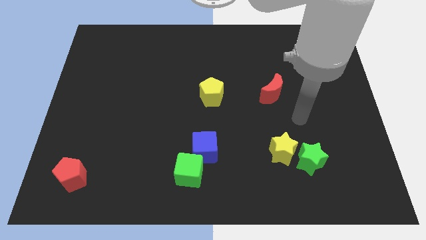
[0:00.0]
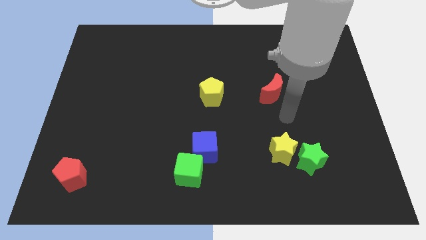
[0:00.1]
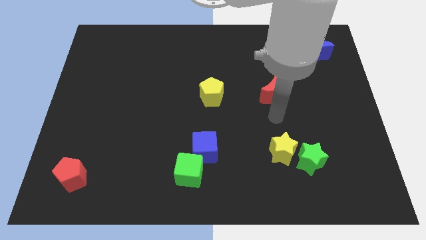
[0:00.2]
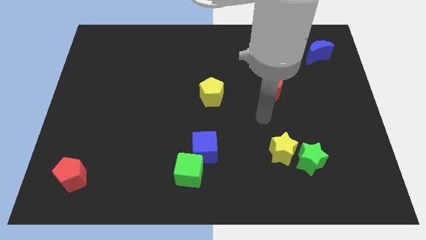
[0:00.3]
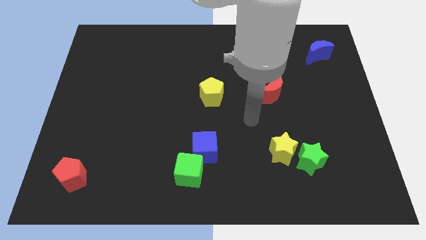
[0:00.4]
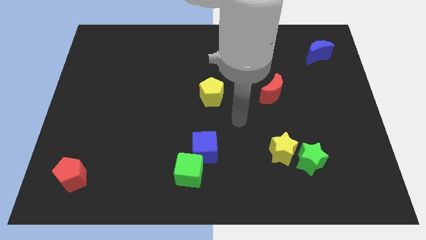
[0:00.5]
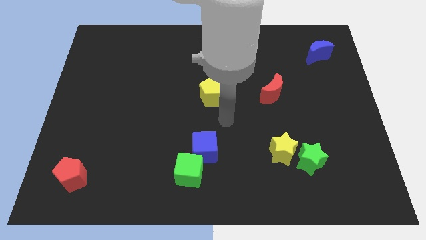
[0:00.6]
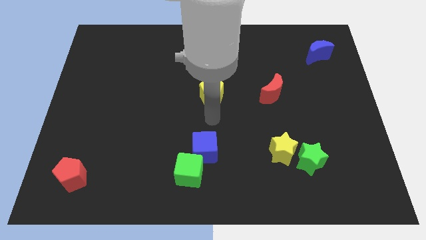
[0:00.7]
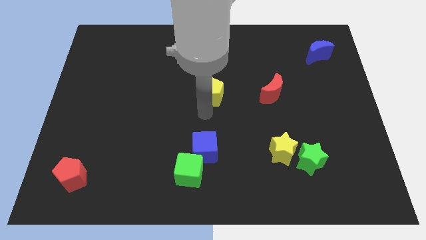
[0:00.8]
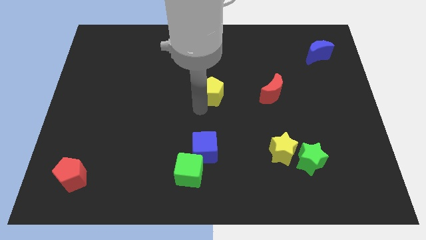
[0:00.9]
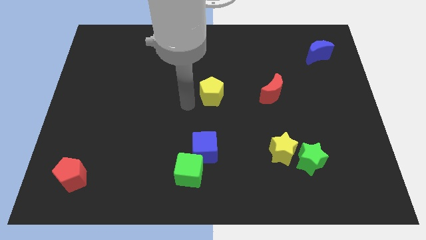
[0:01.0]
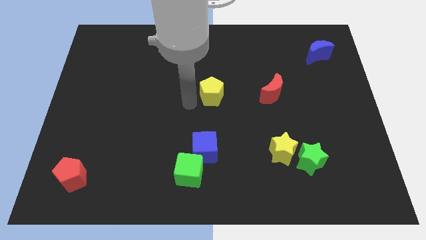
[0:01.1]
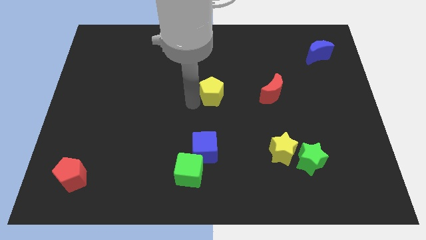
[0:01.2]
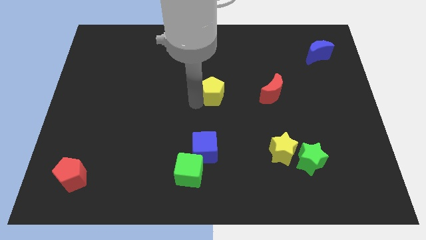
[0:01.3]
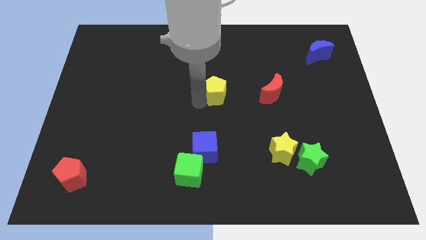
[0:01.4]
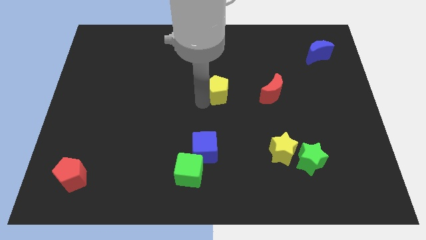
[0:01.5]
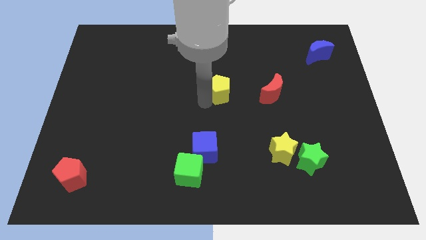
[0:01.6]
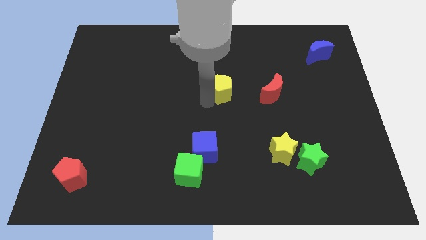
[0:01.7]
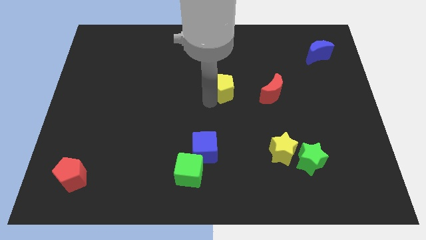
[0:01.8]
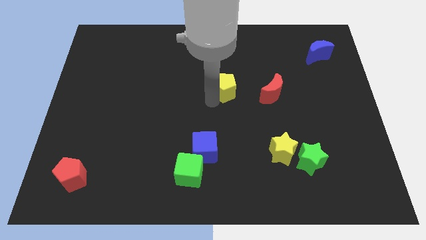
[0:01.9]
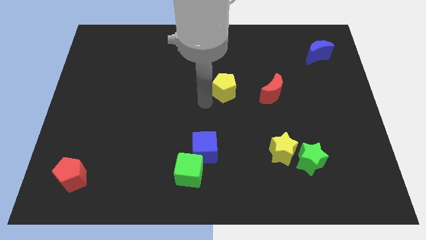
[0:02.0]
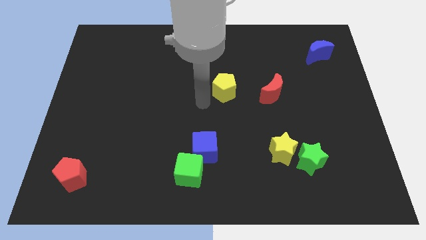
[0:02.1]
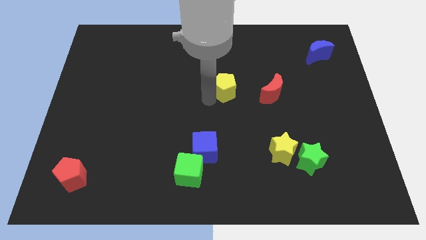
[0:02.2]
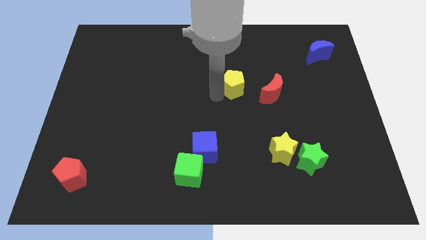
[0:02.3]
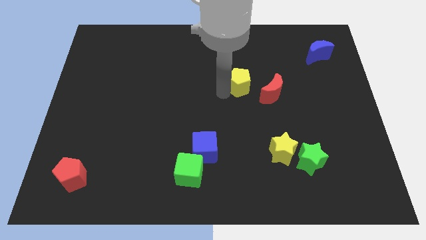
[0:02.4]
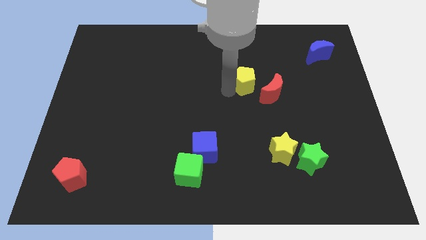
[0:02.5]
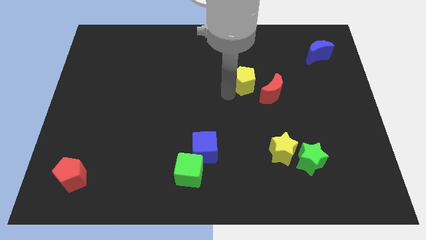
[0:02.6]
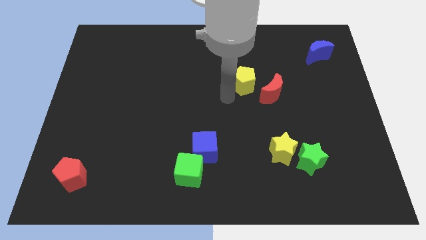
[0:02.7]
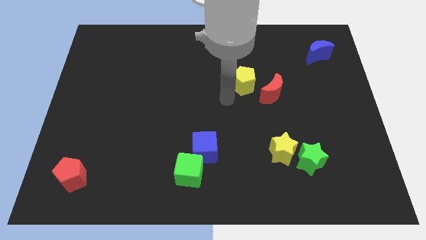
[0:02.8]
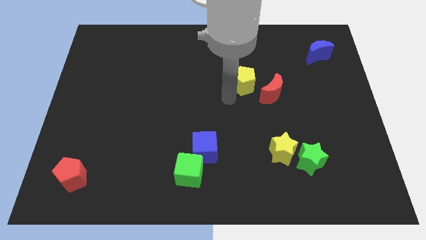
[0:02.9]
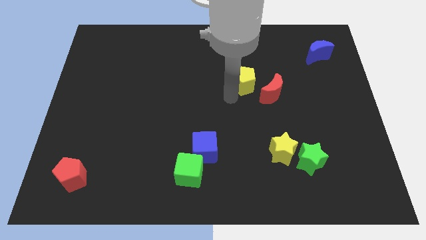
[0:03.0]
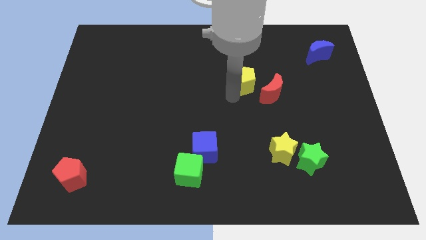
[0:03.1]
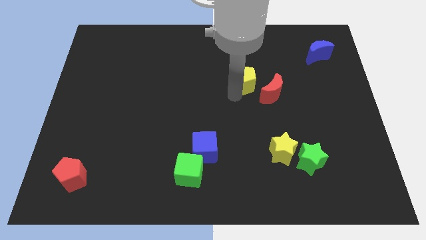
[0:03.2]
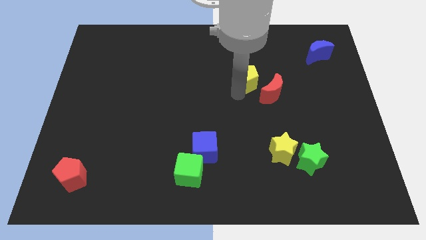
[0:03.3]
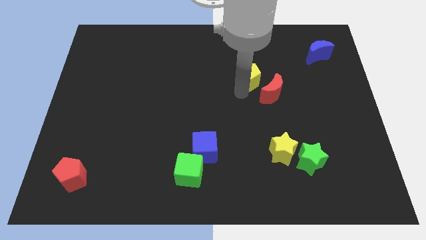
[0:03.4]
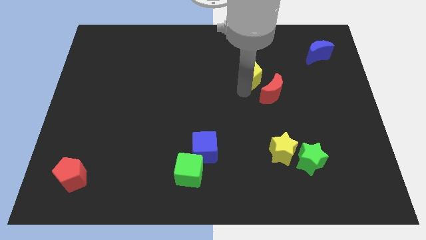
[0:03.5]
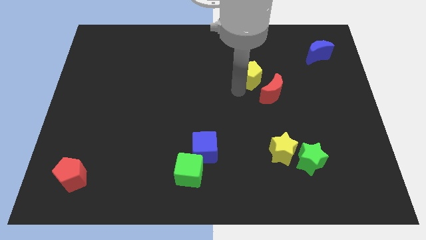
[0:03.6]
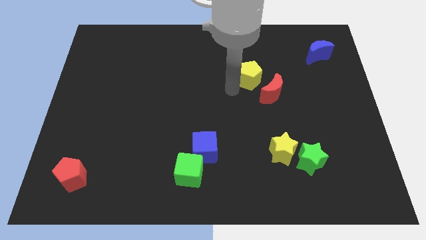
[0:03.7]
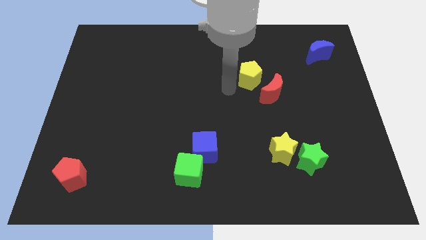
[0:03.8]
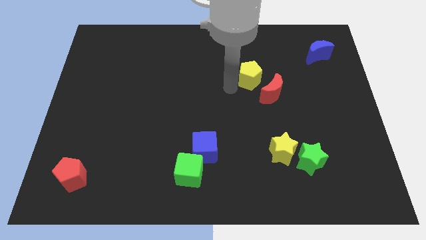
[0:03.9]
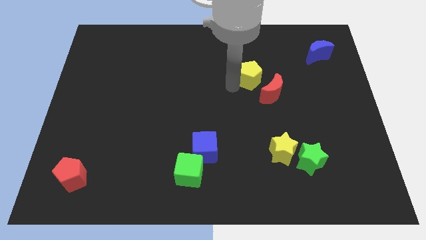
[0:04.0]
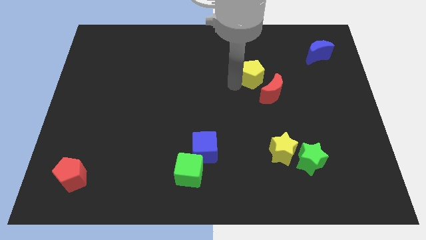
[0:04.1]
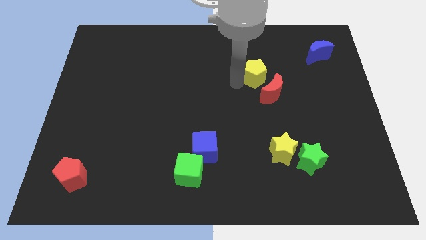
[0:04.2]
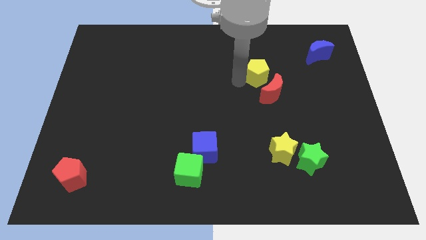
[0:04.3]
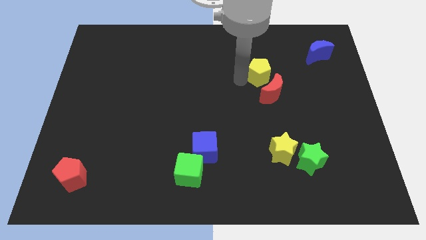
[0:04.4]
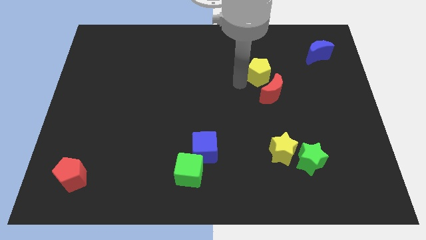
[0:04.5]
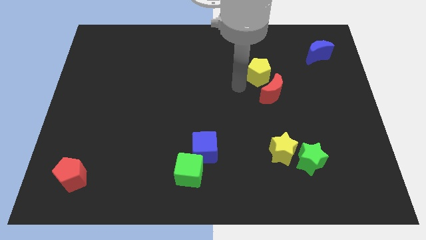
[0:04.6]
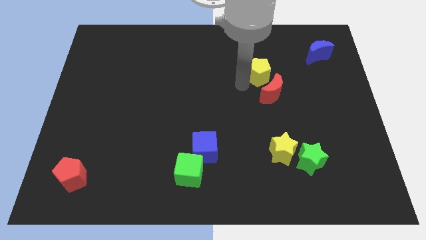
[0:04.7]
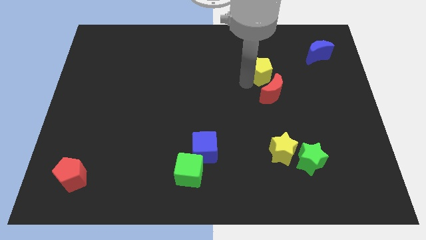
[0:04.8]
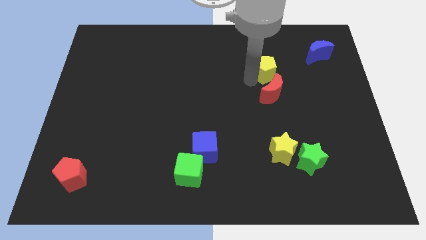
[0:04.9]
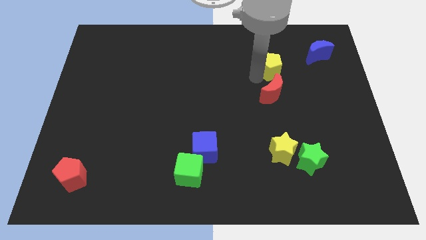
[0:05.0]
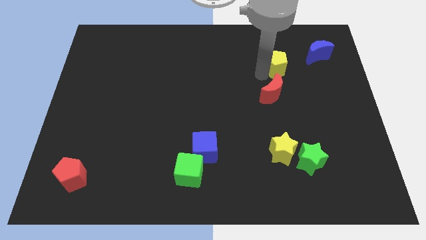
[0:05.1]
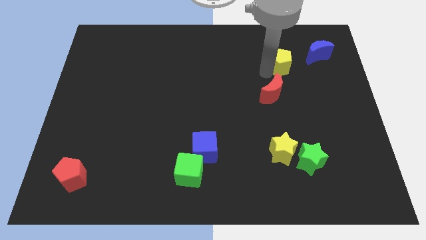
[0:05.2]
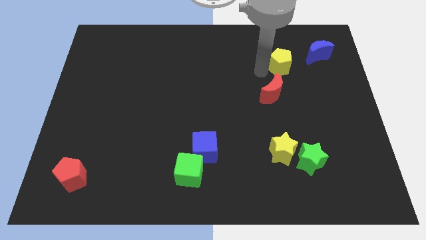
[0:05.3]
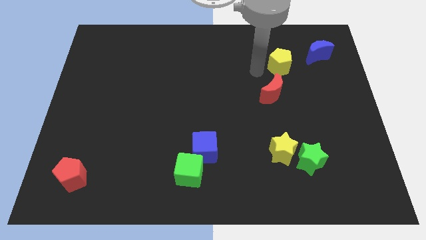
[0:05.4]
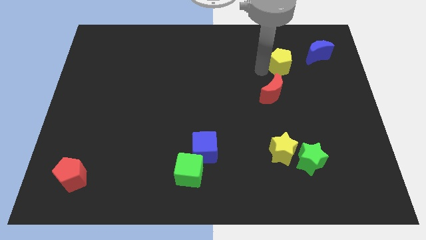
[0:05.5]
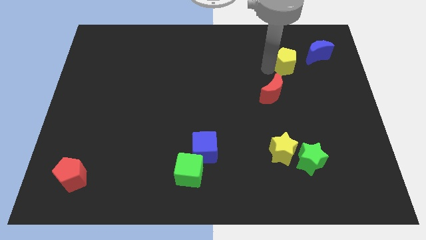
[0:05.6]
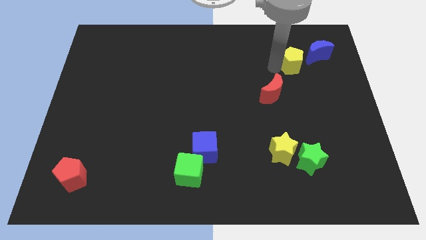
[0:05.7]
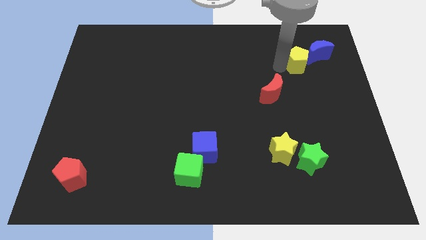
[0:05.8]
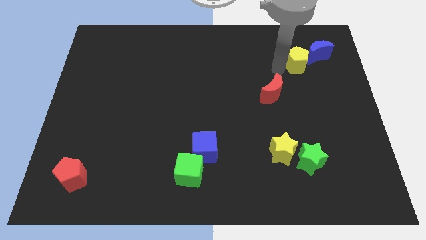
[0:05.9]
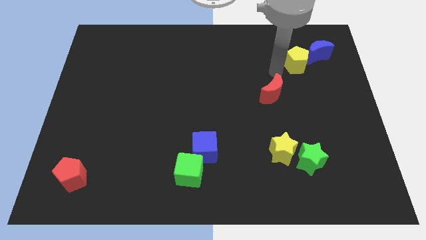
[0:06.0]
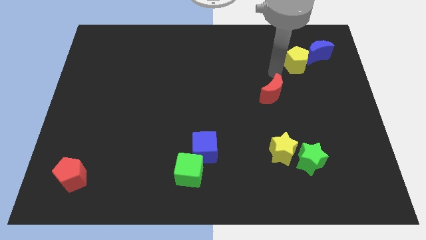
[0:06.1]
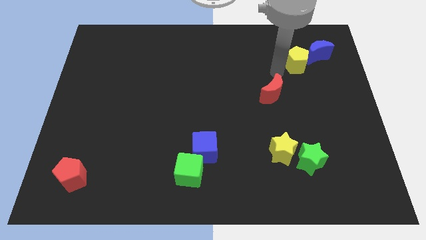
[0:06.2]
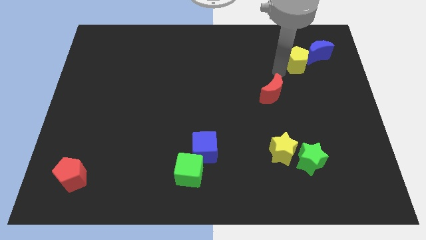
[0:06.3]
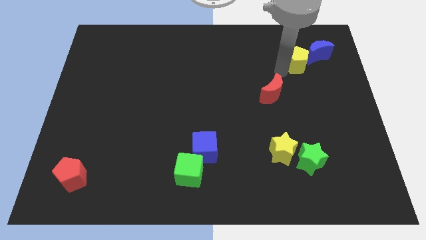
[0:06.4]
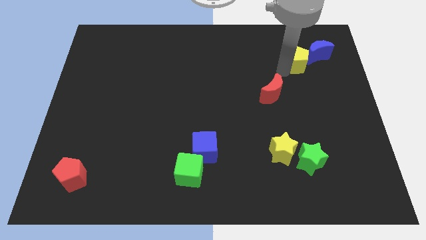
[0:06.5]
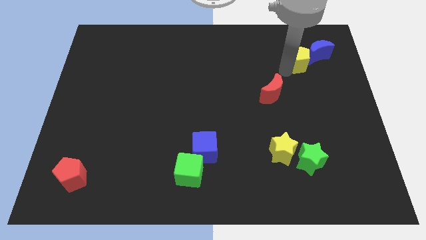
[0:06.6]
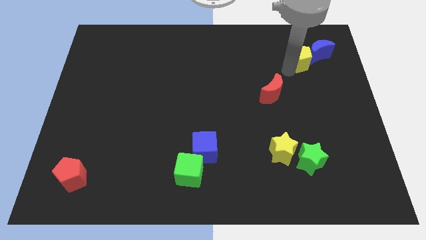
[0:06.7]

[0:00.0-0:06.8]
push the yellow pentagon next to the blue moon

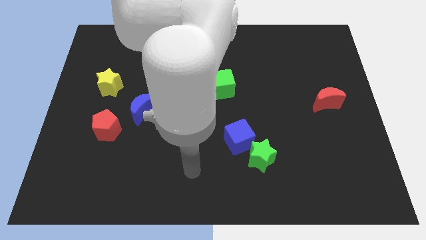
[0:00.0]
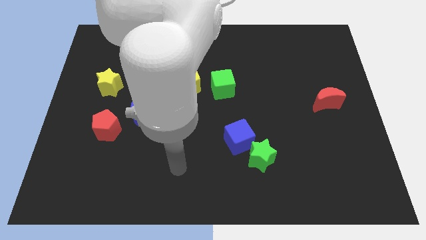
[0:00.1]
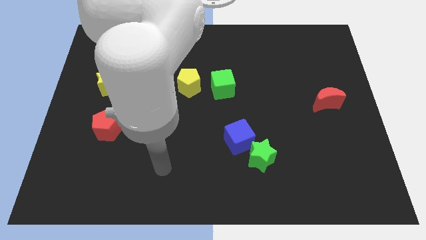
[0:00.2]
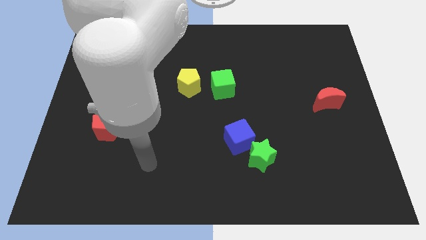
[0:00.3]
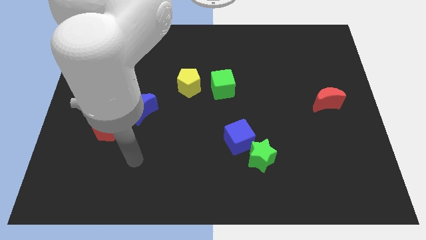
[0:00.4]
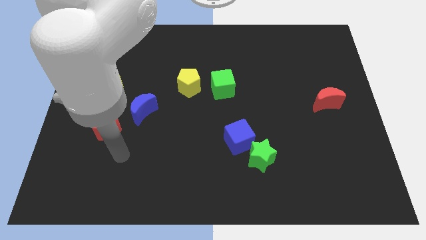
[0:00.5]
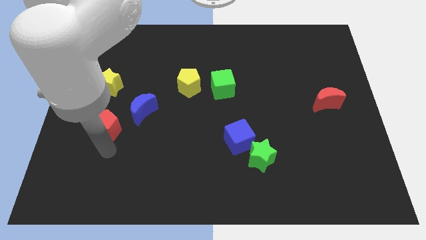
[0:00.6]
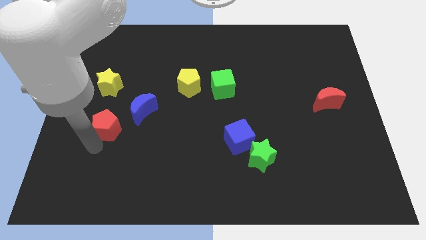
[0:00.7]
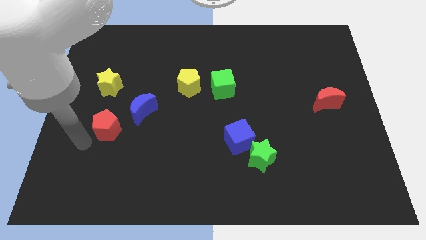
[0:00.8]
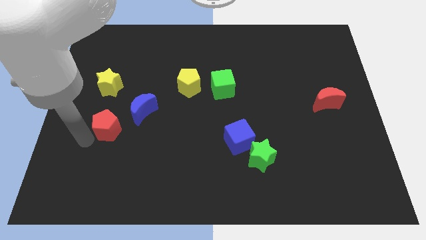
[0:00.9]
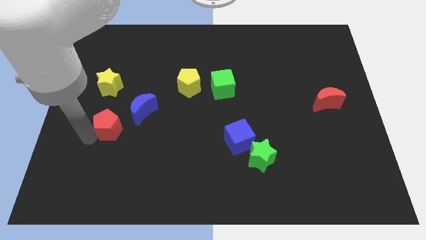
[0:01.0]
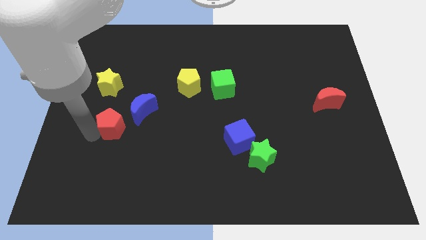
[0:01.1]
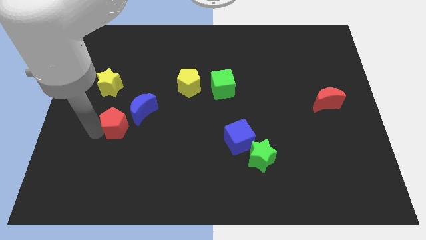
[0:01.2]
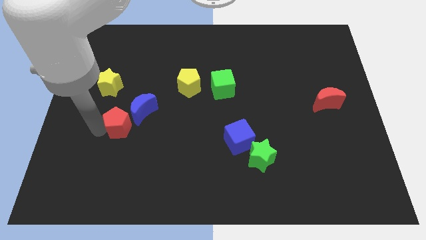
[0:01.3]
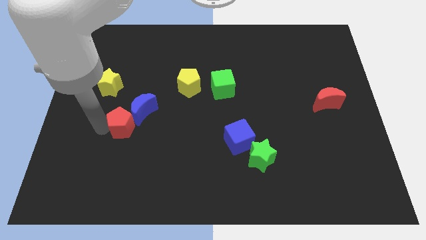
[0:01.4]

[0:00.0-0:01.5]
push the red pentagon towards the blue moon
